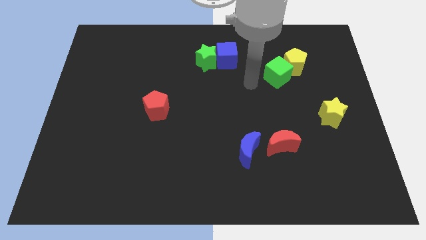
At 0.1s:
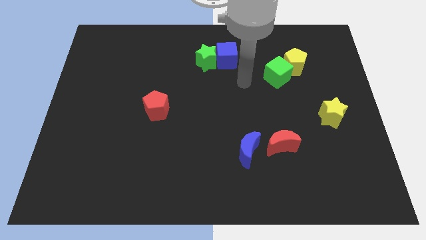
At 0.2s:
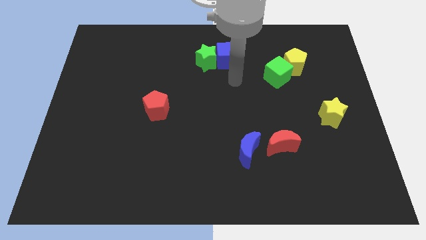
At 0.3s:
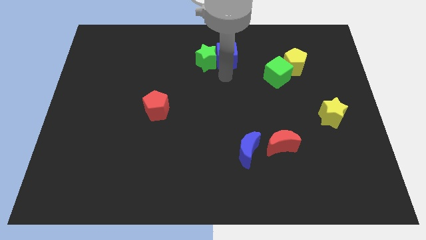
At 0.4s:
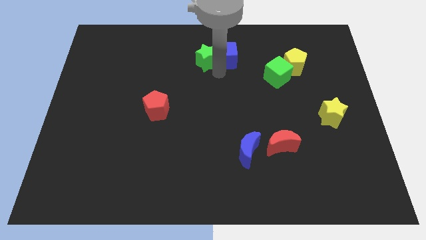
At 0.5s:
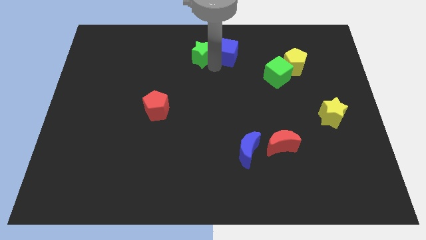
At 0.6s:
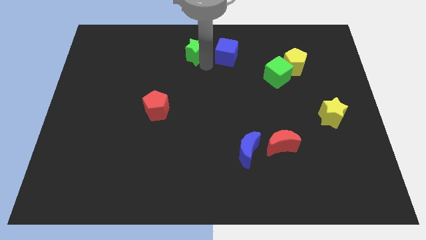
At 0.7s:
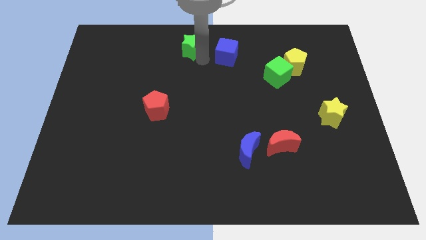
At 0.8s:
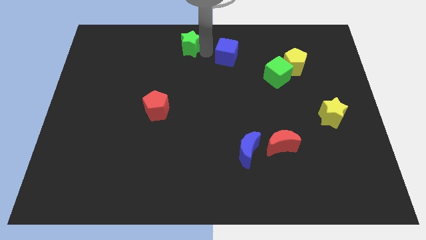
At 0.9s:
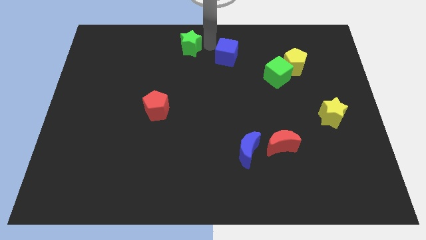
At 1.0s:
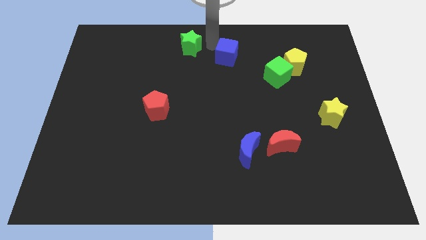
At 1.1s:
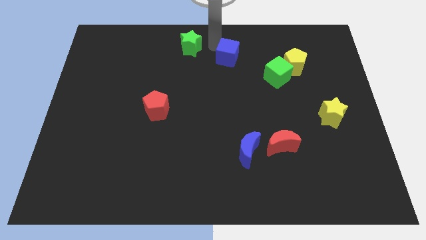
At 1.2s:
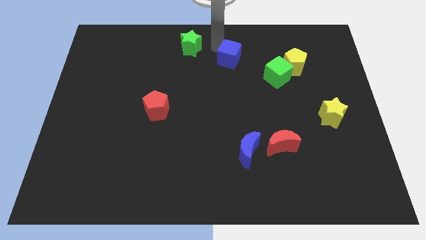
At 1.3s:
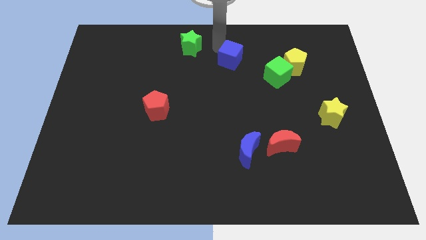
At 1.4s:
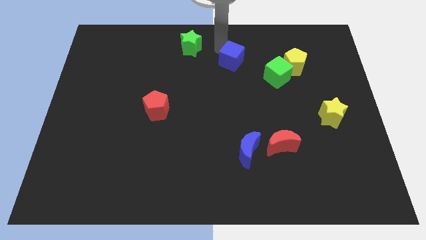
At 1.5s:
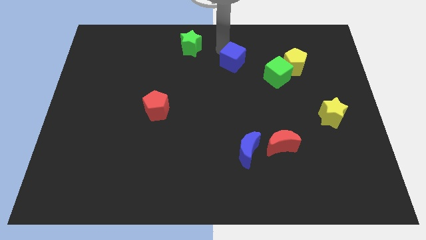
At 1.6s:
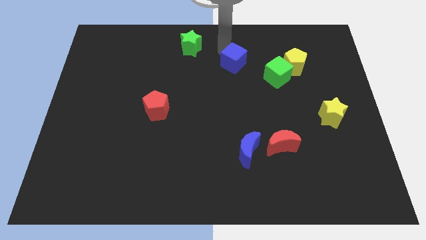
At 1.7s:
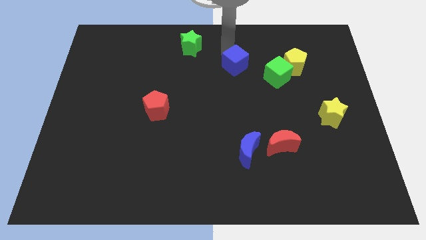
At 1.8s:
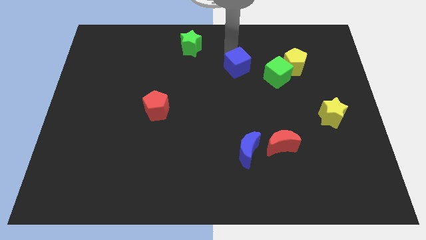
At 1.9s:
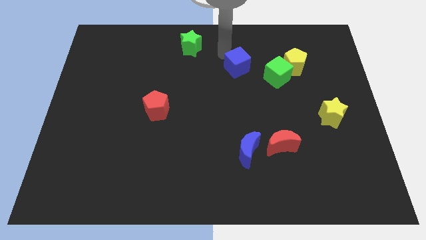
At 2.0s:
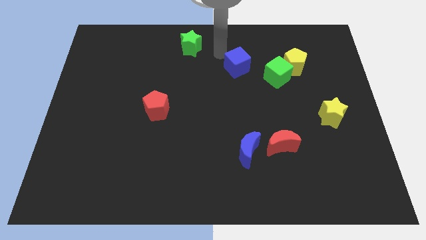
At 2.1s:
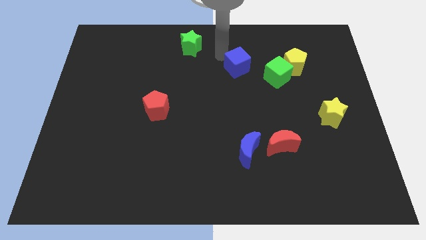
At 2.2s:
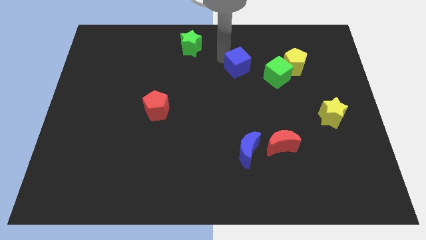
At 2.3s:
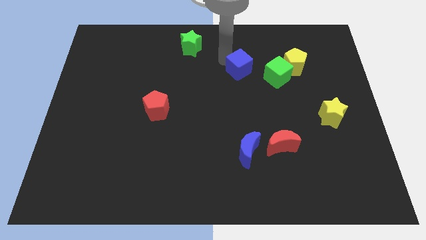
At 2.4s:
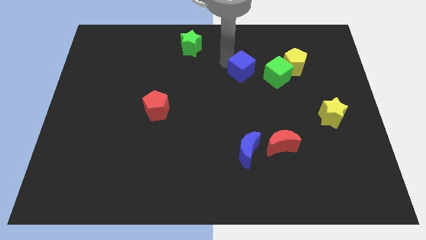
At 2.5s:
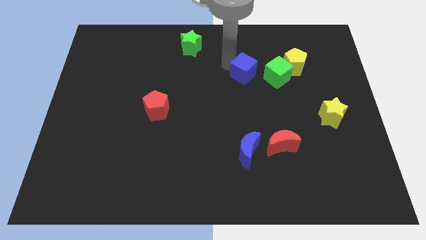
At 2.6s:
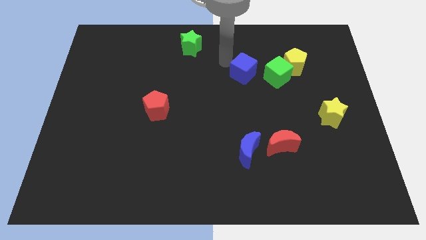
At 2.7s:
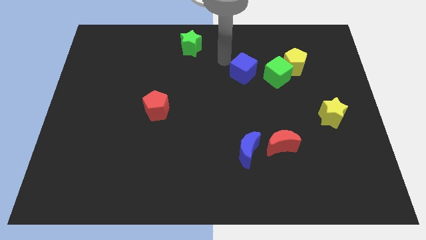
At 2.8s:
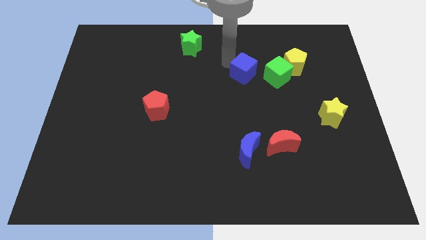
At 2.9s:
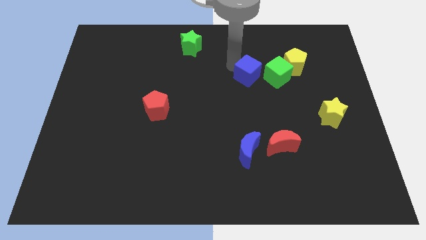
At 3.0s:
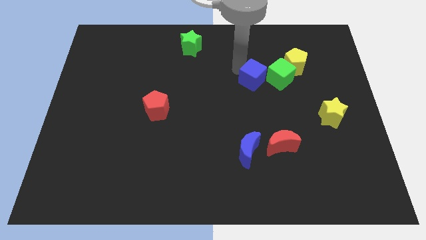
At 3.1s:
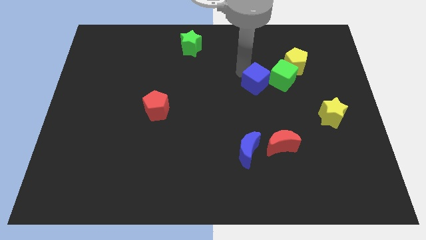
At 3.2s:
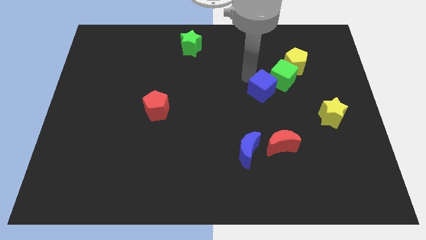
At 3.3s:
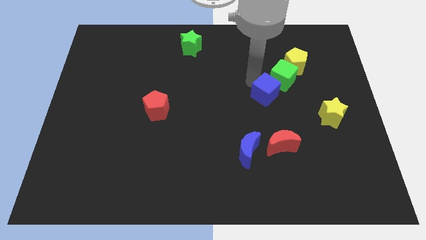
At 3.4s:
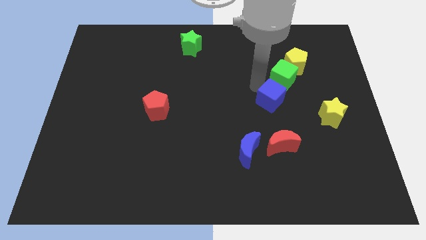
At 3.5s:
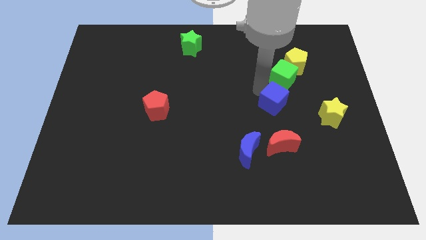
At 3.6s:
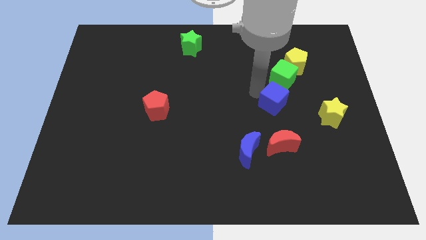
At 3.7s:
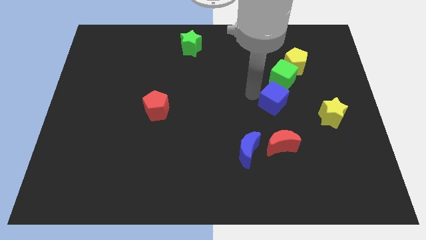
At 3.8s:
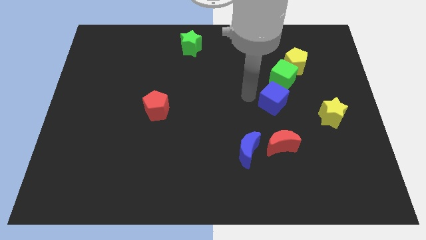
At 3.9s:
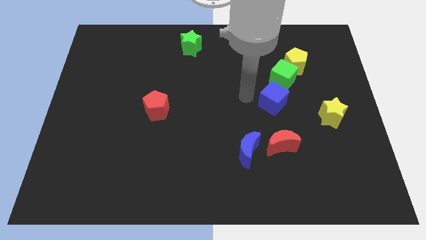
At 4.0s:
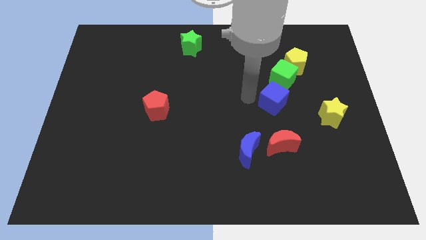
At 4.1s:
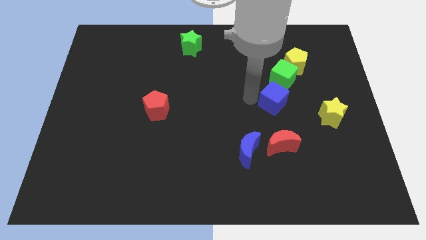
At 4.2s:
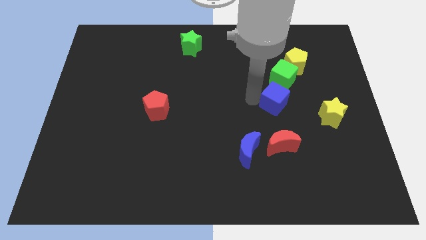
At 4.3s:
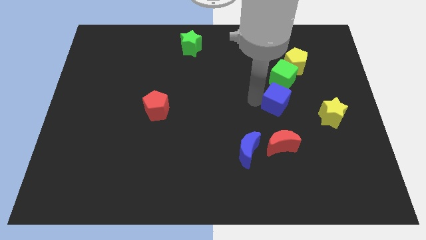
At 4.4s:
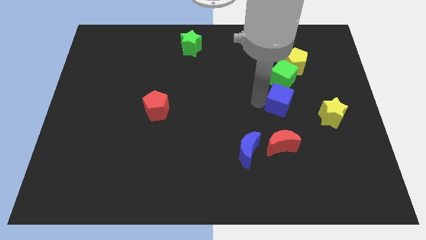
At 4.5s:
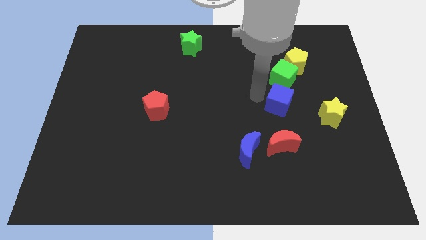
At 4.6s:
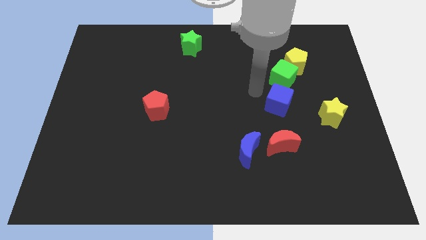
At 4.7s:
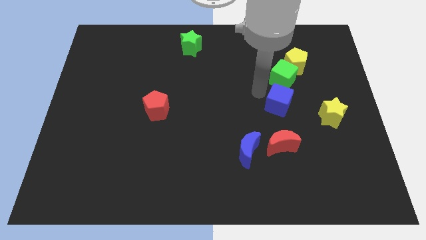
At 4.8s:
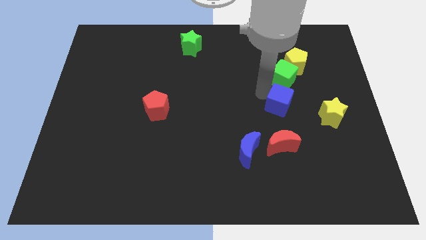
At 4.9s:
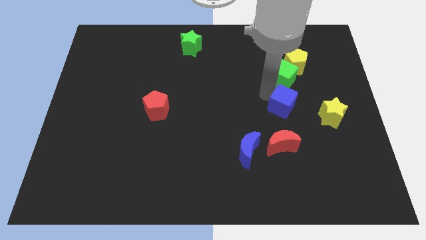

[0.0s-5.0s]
push the blue cube downwards and then to the right

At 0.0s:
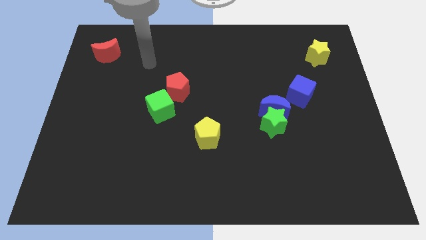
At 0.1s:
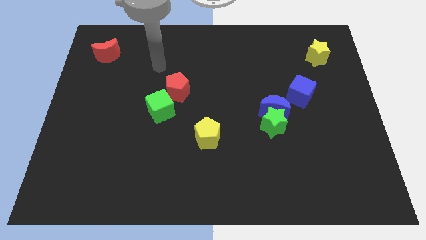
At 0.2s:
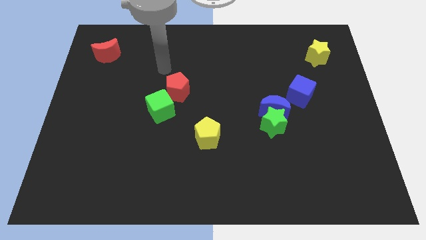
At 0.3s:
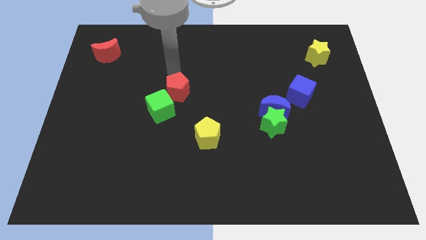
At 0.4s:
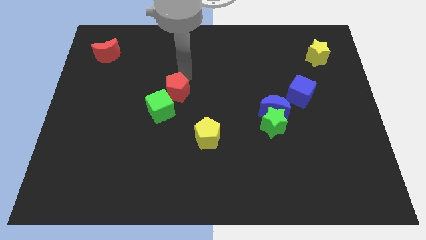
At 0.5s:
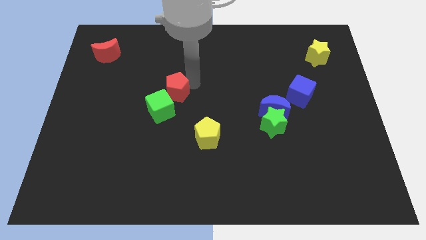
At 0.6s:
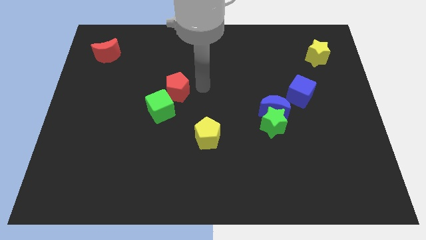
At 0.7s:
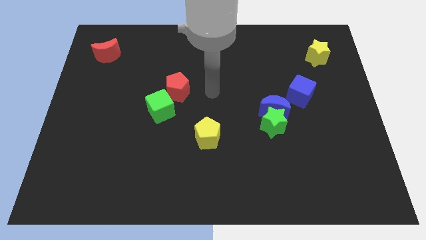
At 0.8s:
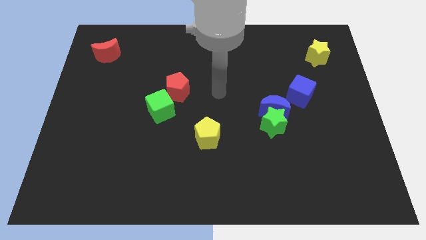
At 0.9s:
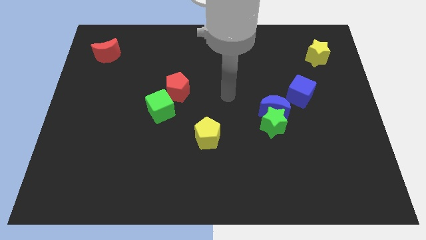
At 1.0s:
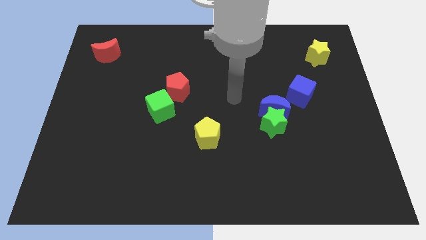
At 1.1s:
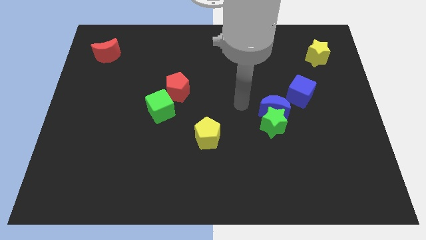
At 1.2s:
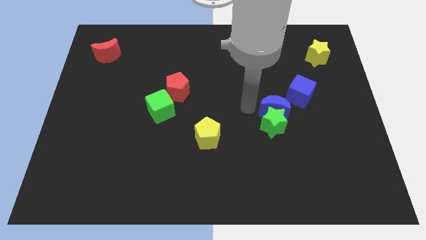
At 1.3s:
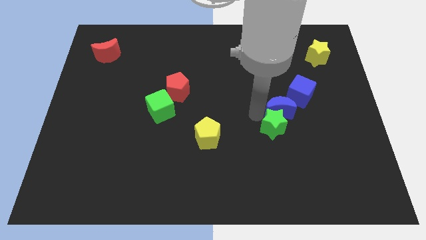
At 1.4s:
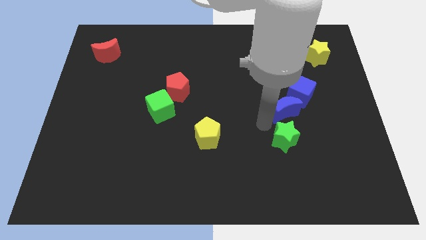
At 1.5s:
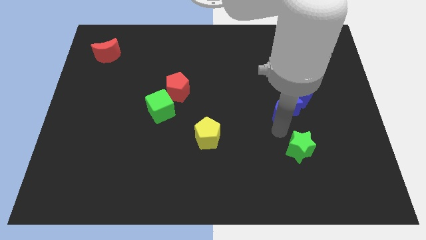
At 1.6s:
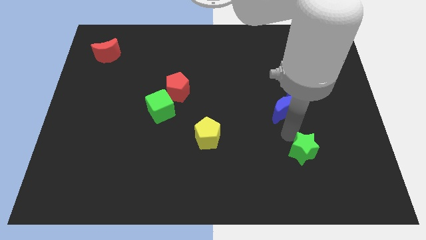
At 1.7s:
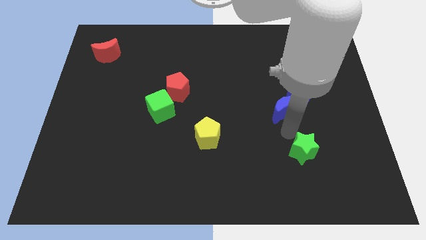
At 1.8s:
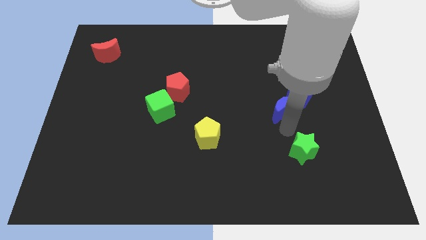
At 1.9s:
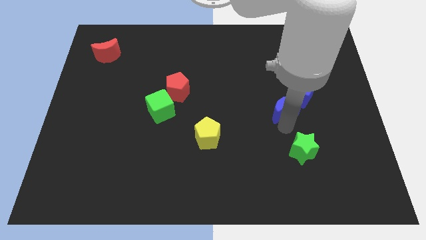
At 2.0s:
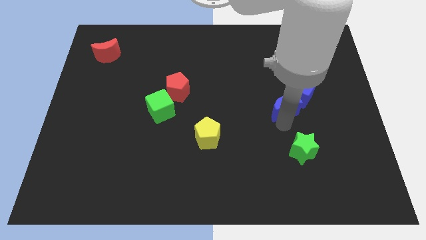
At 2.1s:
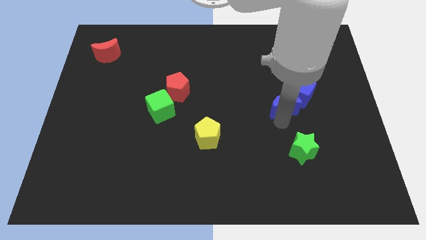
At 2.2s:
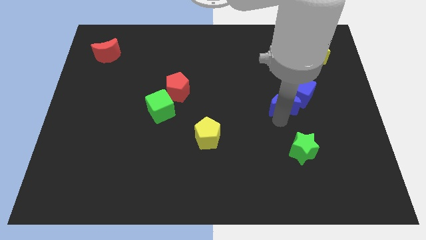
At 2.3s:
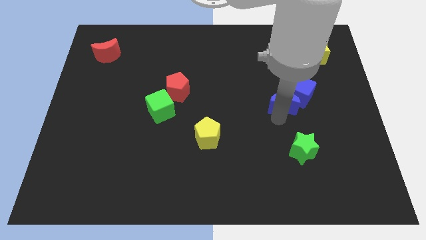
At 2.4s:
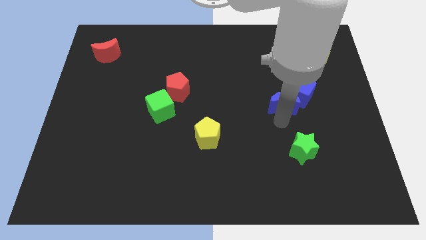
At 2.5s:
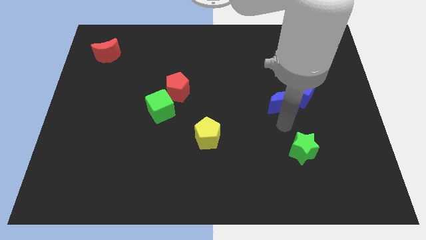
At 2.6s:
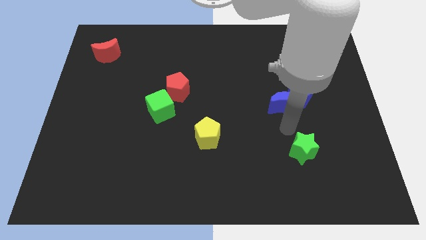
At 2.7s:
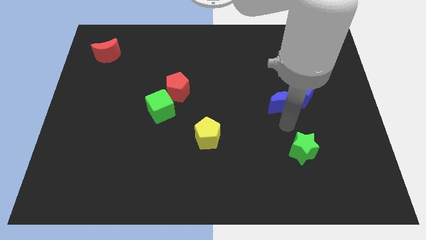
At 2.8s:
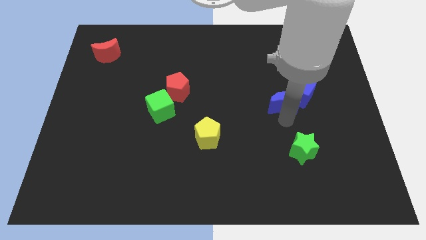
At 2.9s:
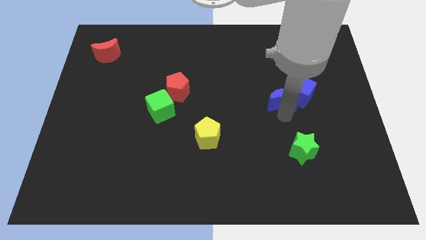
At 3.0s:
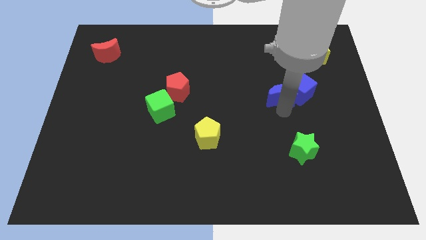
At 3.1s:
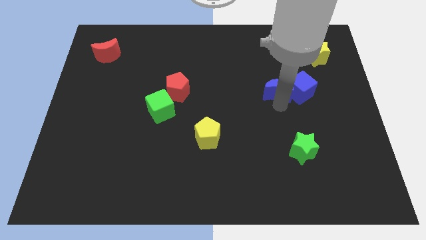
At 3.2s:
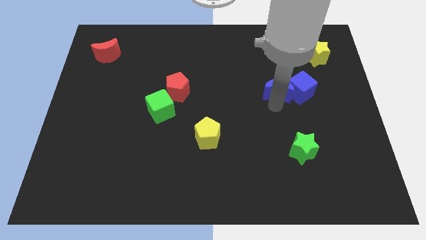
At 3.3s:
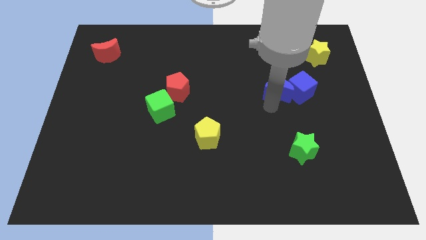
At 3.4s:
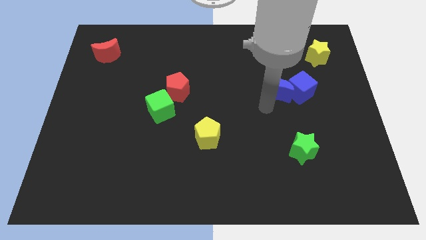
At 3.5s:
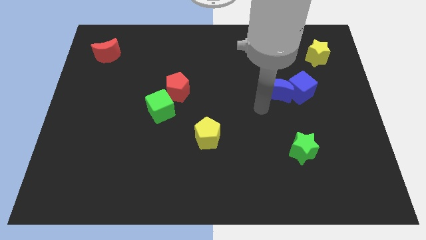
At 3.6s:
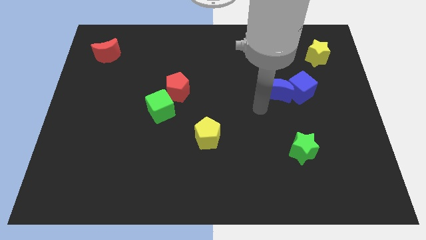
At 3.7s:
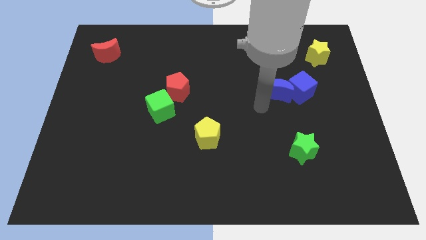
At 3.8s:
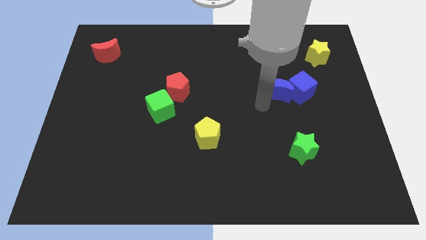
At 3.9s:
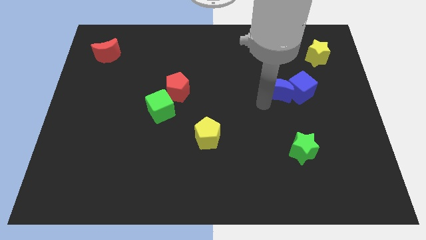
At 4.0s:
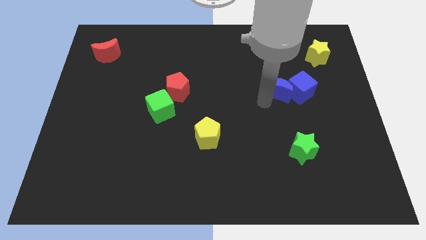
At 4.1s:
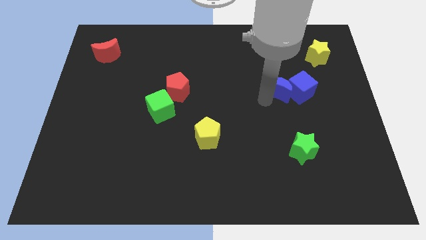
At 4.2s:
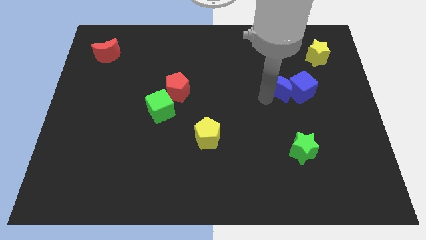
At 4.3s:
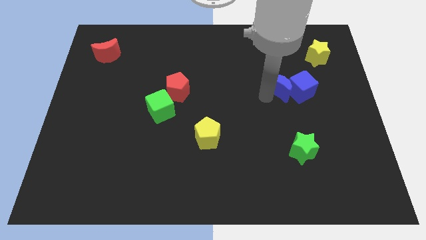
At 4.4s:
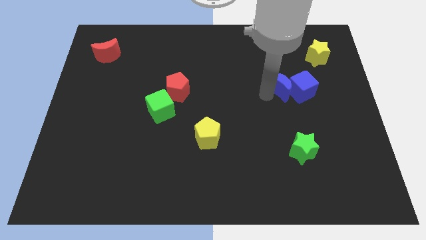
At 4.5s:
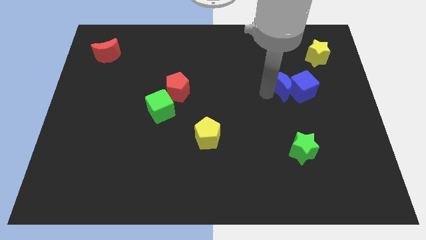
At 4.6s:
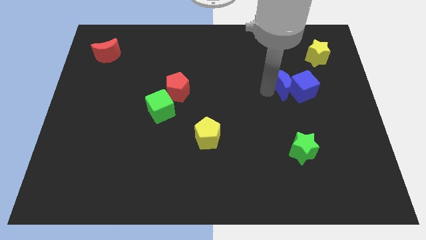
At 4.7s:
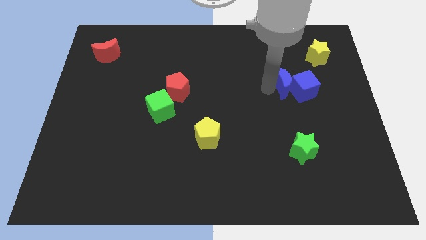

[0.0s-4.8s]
slightly move the blue moon up and then right
